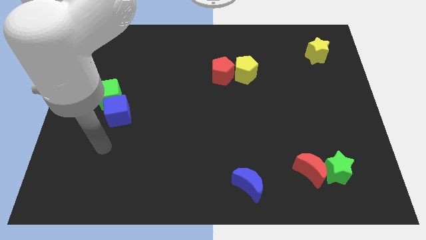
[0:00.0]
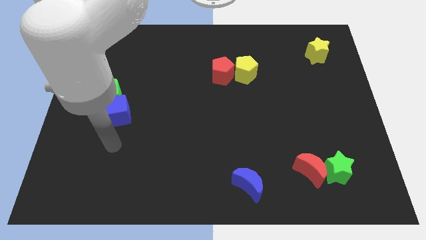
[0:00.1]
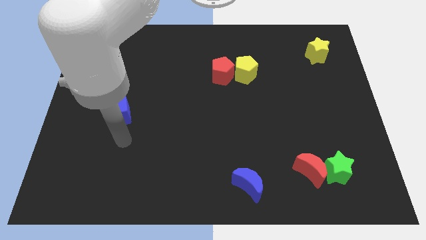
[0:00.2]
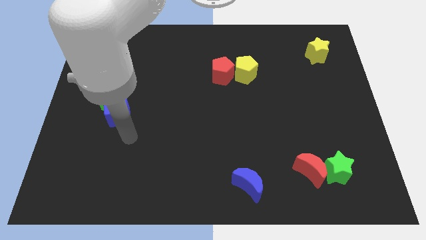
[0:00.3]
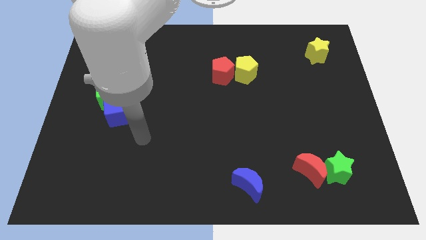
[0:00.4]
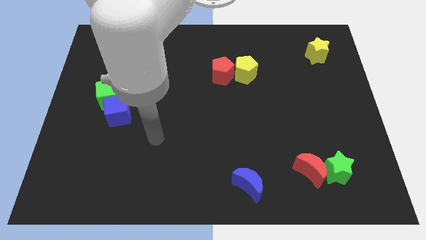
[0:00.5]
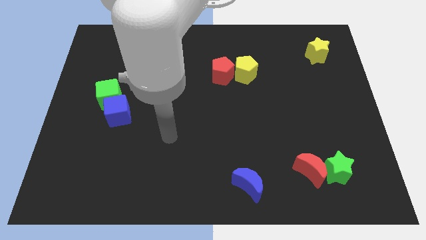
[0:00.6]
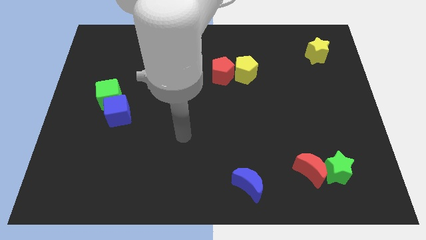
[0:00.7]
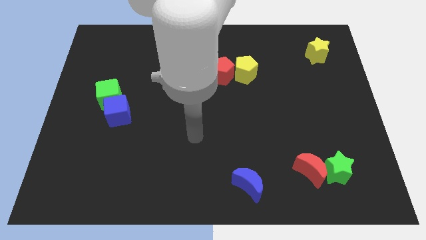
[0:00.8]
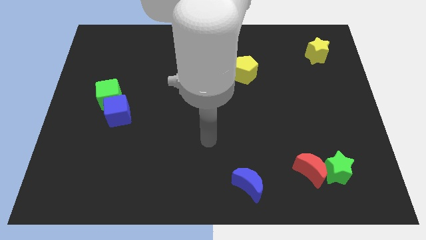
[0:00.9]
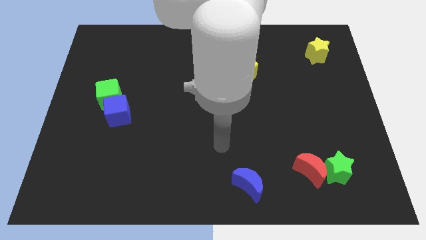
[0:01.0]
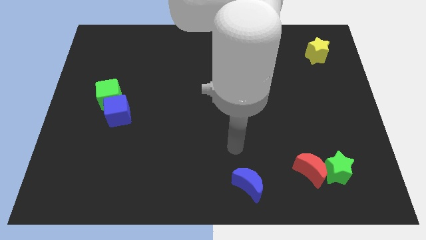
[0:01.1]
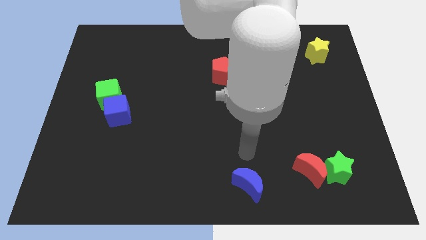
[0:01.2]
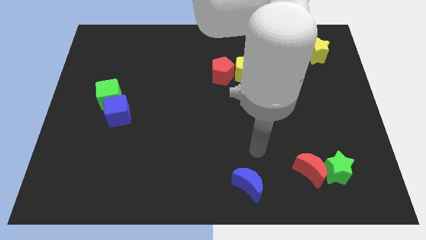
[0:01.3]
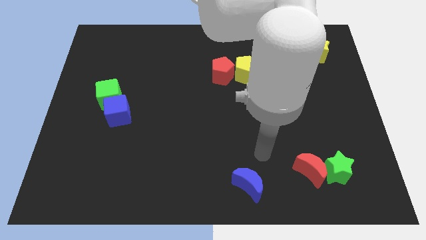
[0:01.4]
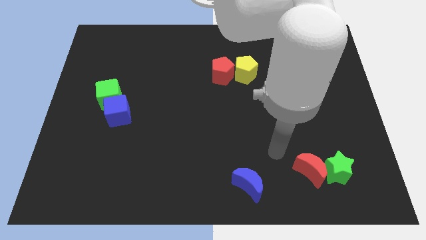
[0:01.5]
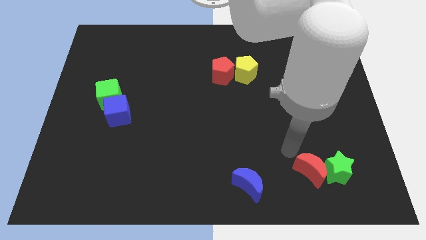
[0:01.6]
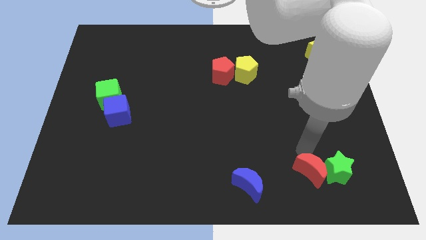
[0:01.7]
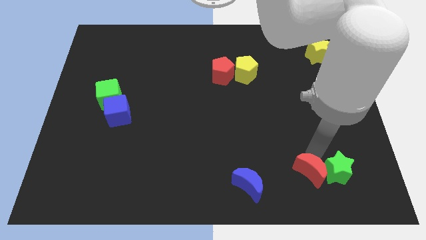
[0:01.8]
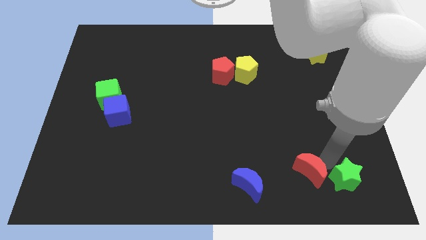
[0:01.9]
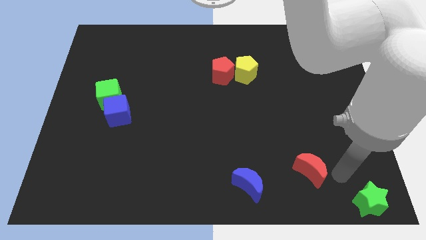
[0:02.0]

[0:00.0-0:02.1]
pull the red moon apart from the green star

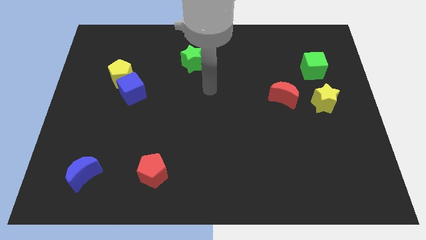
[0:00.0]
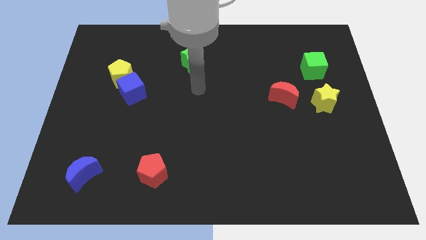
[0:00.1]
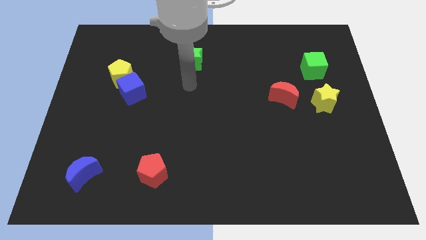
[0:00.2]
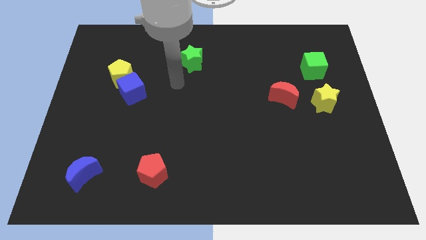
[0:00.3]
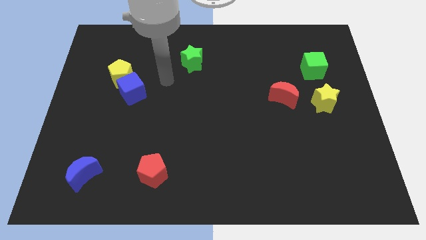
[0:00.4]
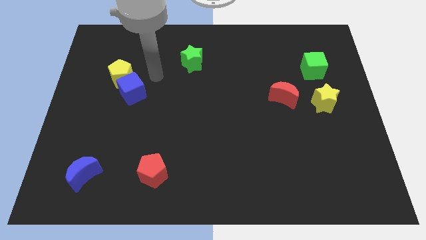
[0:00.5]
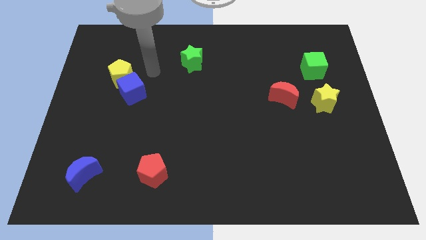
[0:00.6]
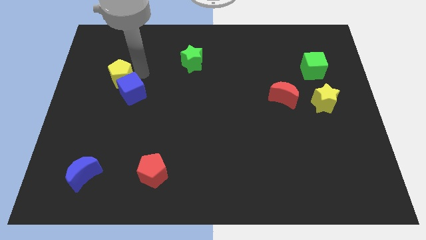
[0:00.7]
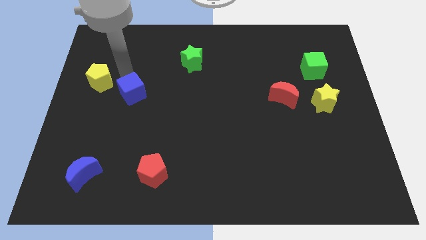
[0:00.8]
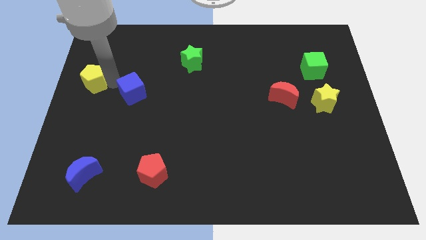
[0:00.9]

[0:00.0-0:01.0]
separate the blue cube from the yellow pentagon

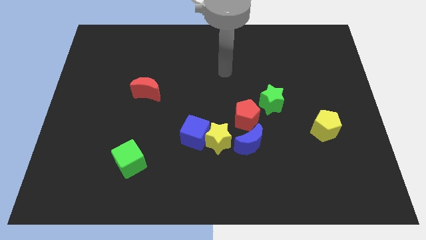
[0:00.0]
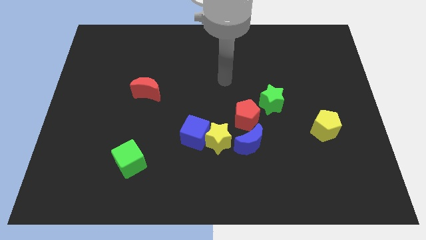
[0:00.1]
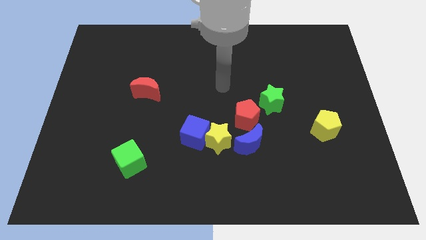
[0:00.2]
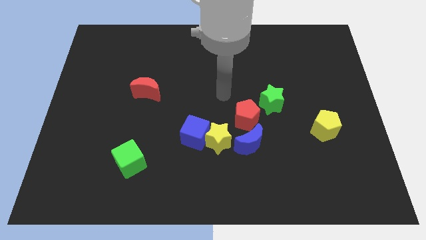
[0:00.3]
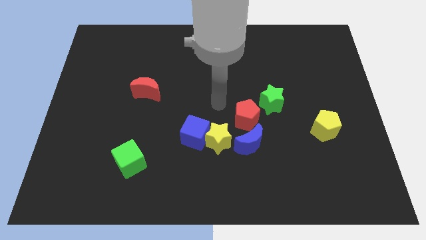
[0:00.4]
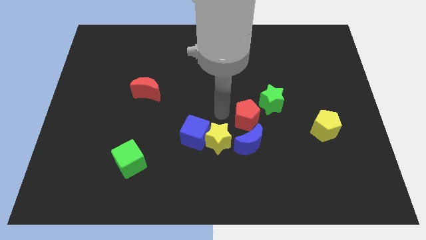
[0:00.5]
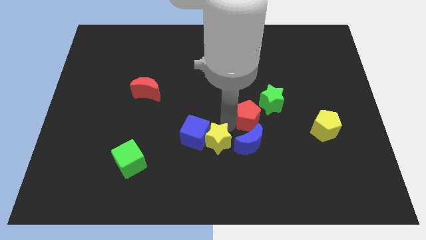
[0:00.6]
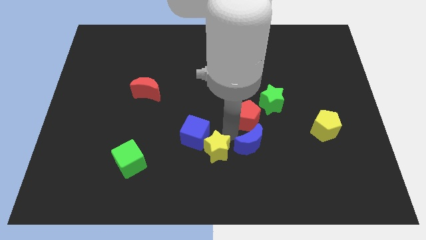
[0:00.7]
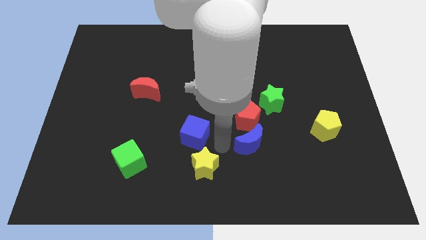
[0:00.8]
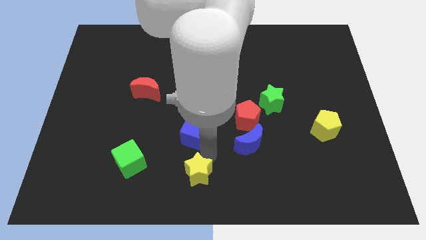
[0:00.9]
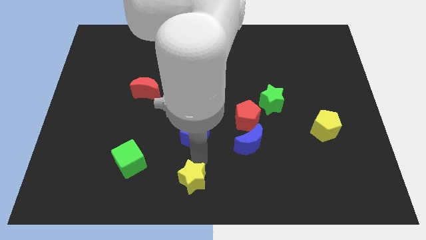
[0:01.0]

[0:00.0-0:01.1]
pull the blue cube apart from the yellow star

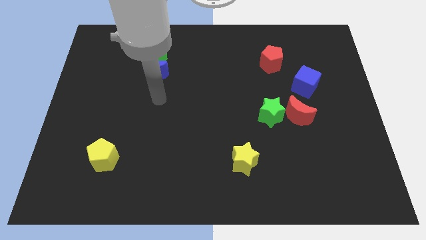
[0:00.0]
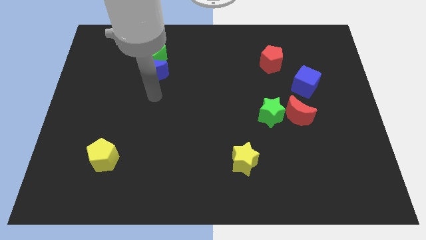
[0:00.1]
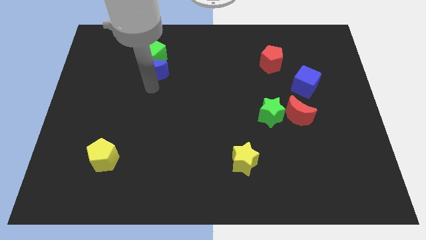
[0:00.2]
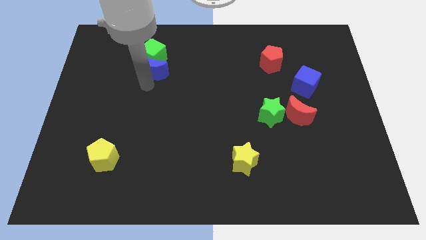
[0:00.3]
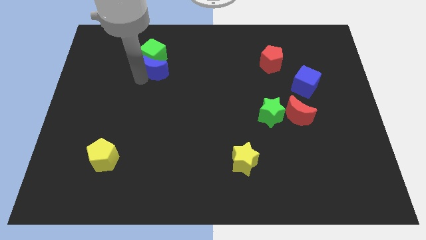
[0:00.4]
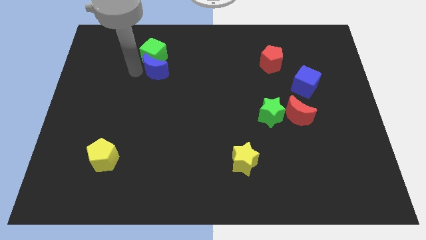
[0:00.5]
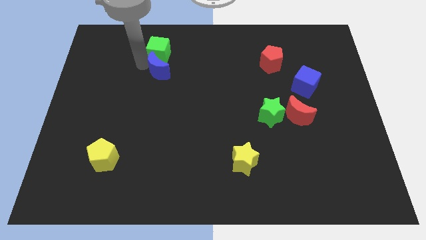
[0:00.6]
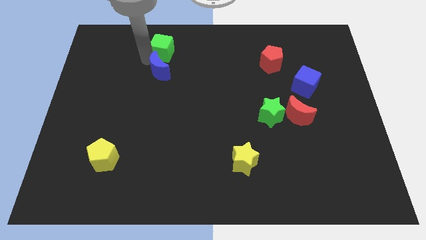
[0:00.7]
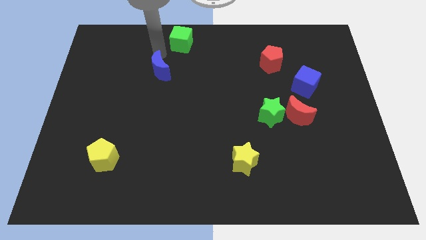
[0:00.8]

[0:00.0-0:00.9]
pull the blue moon apart from the green cube

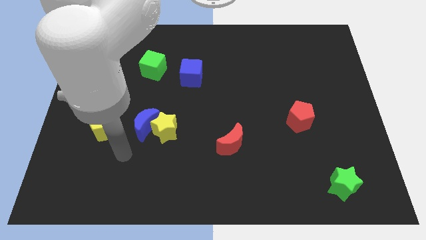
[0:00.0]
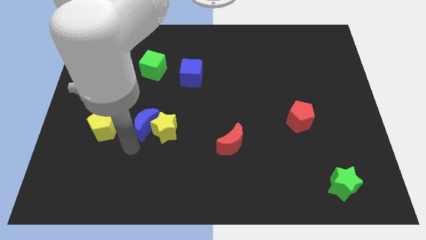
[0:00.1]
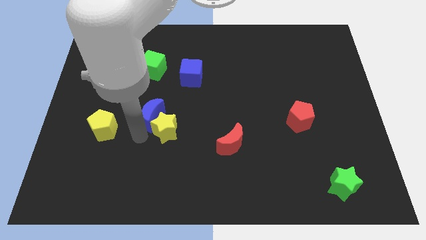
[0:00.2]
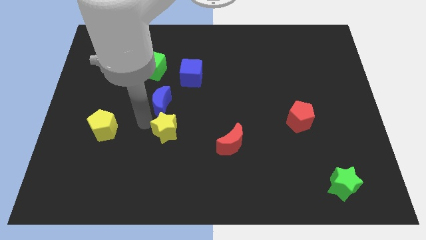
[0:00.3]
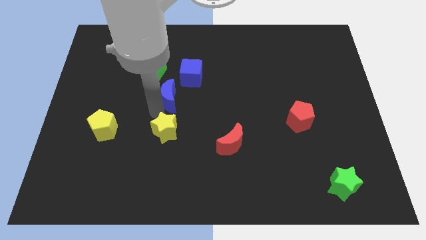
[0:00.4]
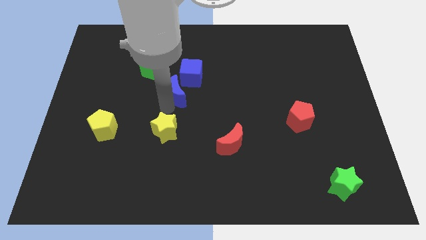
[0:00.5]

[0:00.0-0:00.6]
pull the yellow star apart from the blue moon

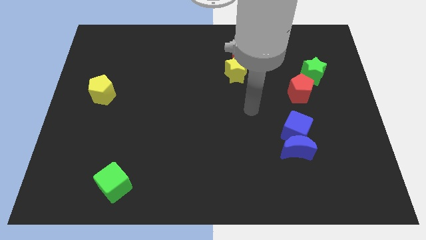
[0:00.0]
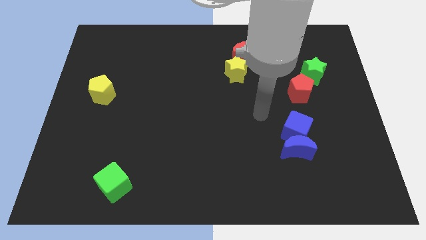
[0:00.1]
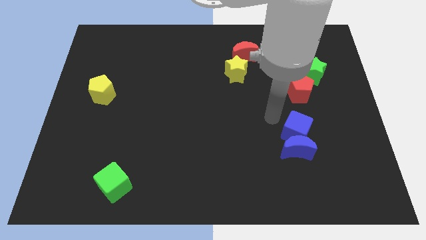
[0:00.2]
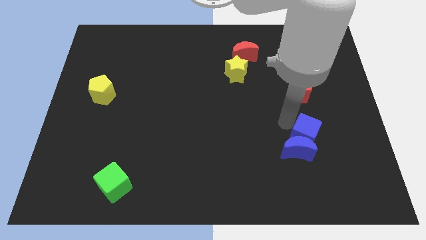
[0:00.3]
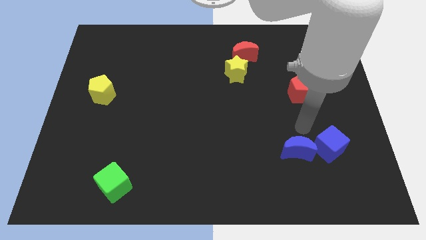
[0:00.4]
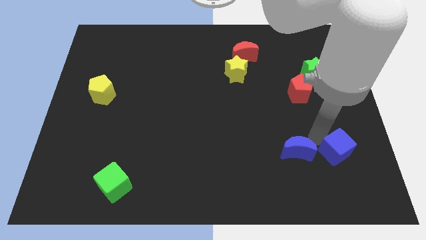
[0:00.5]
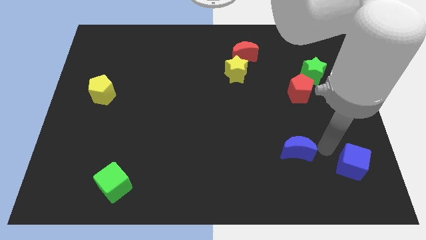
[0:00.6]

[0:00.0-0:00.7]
move the blue moon away from the blue cube

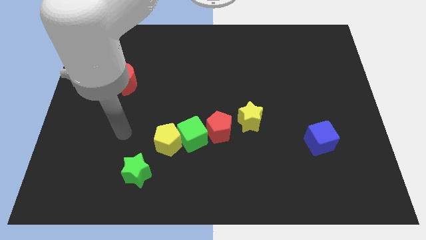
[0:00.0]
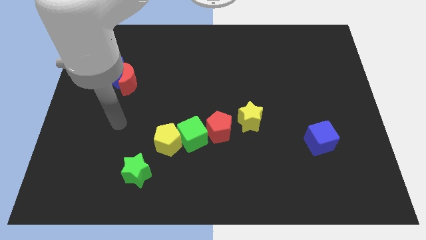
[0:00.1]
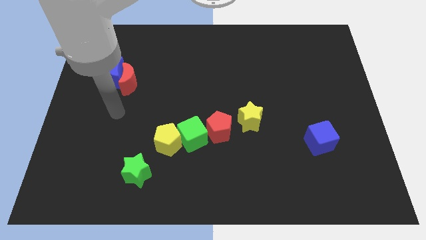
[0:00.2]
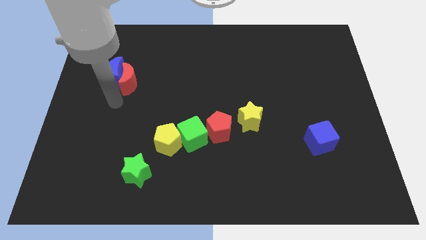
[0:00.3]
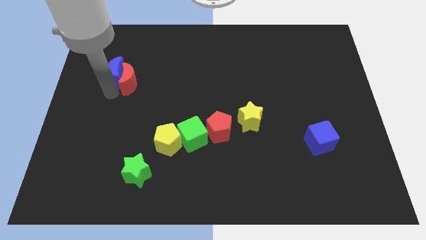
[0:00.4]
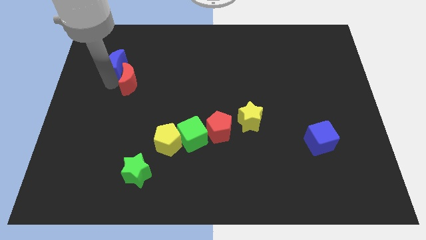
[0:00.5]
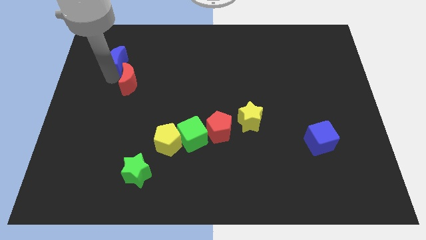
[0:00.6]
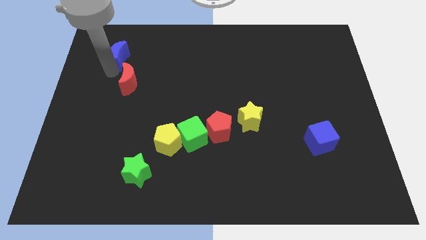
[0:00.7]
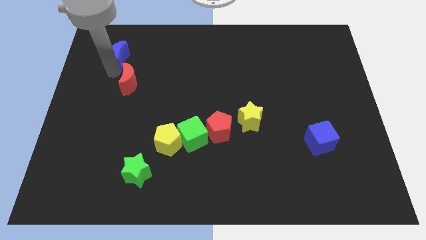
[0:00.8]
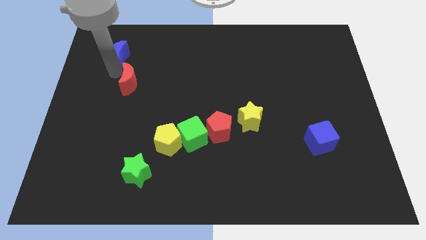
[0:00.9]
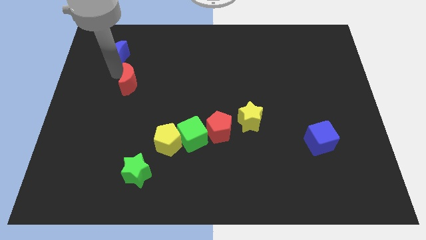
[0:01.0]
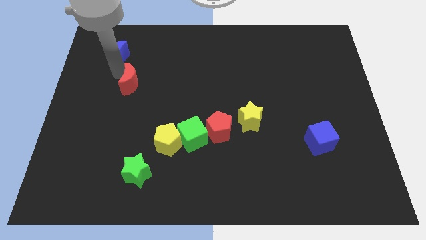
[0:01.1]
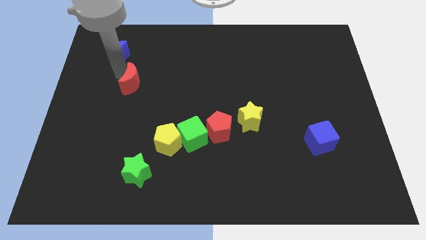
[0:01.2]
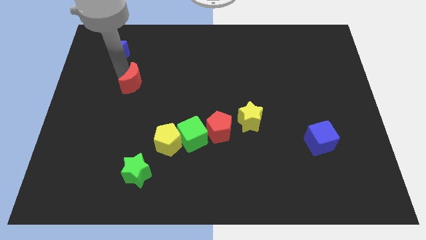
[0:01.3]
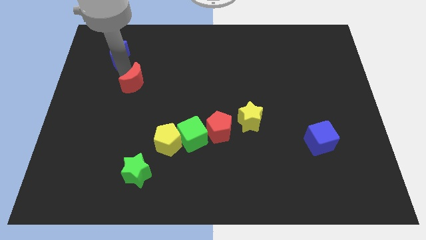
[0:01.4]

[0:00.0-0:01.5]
separate the red moon from the blue moon

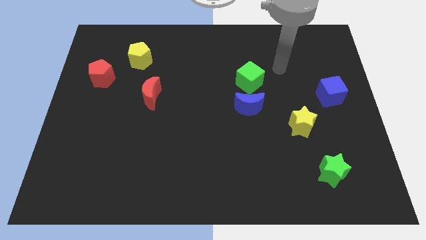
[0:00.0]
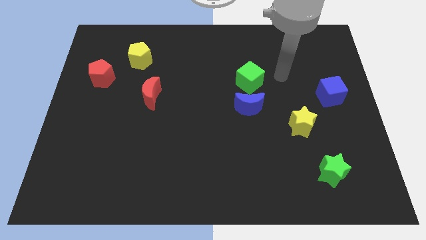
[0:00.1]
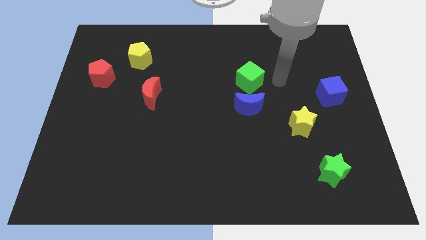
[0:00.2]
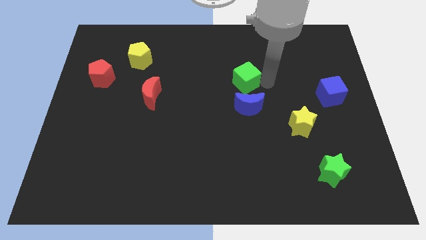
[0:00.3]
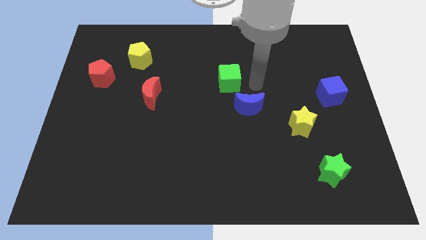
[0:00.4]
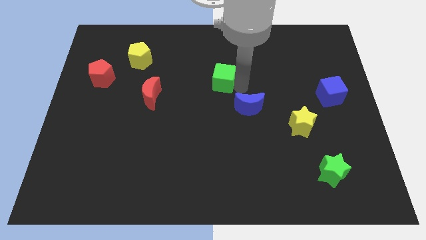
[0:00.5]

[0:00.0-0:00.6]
move the blue moon away from the green cube

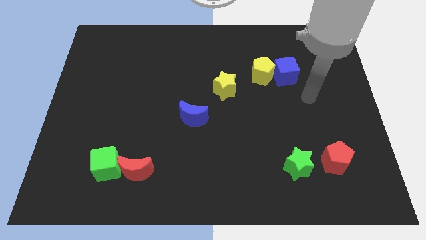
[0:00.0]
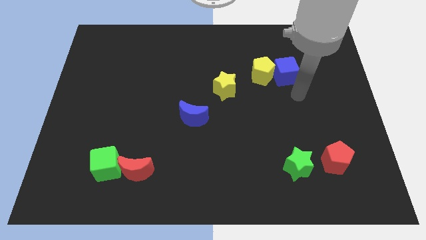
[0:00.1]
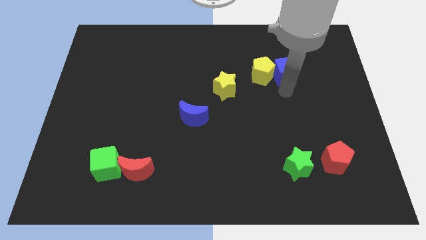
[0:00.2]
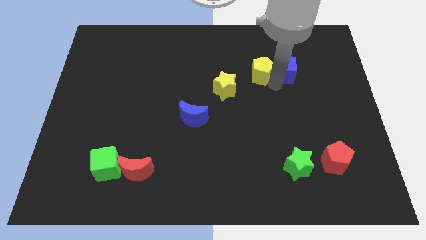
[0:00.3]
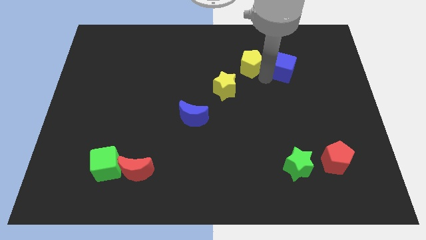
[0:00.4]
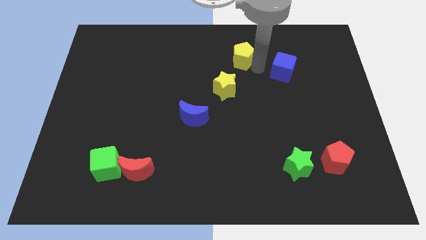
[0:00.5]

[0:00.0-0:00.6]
pull the blue cube apart from the yellow pentagon

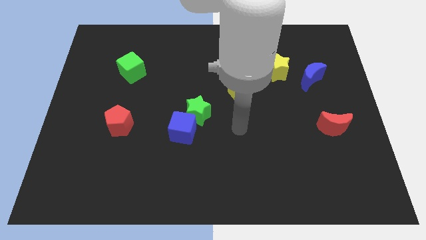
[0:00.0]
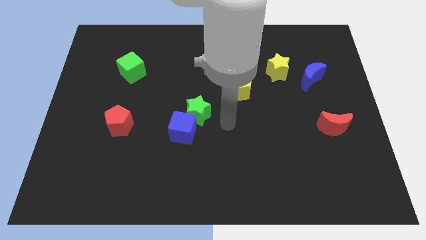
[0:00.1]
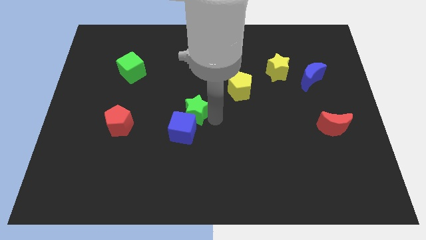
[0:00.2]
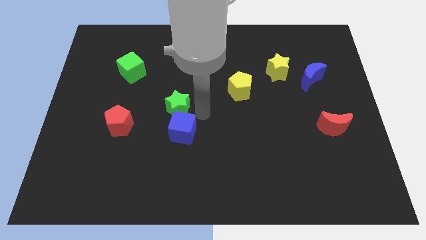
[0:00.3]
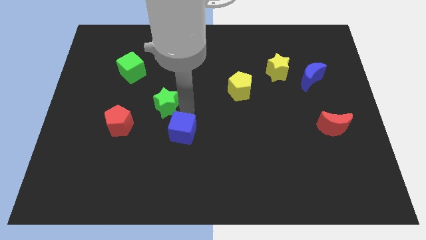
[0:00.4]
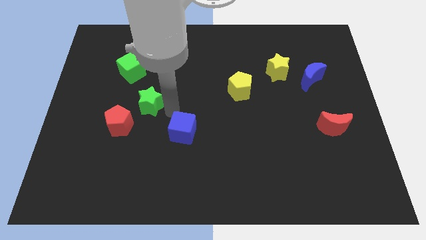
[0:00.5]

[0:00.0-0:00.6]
separate the blue cube from the green star
